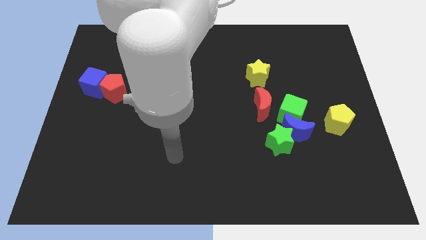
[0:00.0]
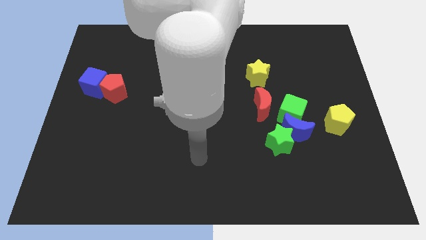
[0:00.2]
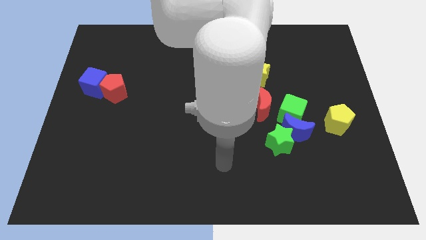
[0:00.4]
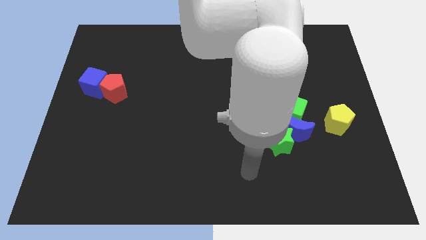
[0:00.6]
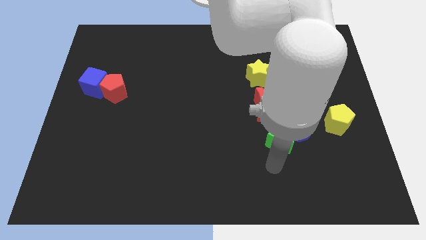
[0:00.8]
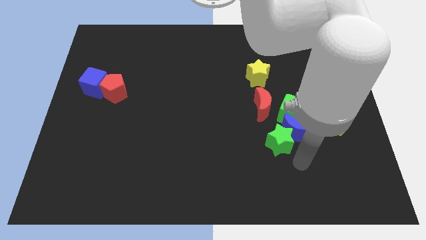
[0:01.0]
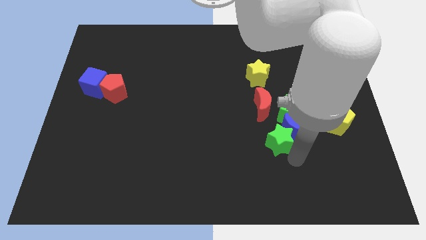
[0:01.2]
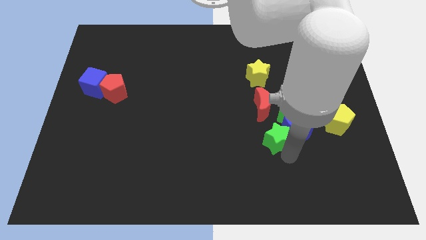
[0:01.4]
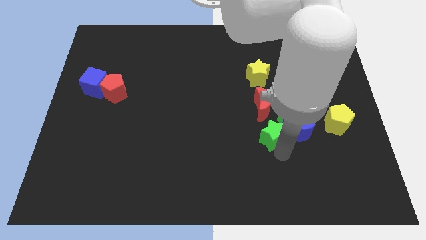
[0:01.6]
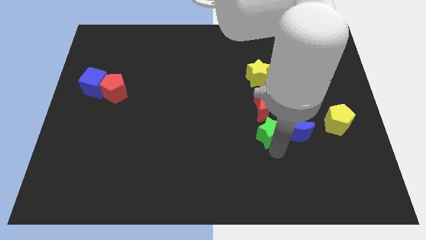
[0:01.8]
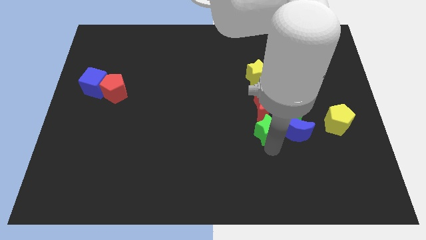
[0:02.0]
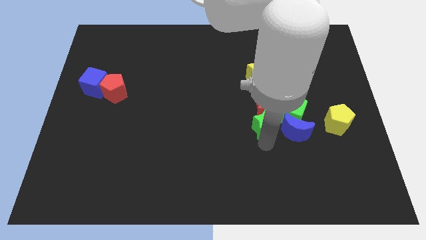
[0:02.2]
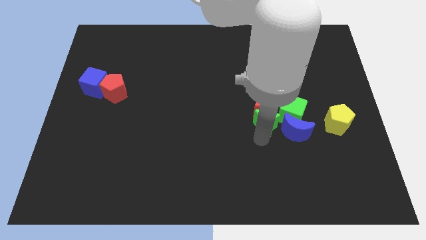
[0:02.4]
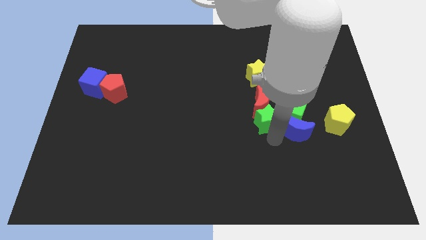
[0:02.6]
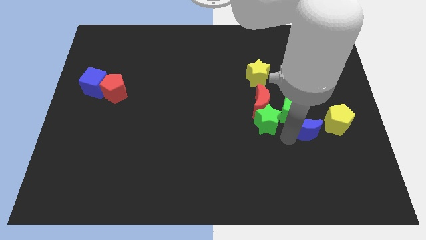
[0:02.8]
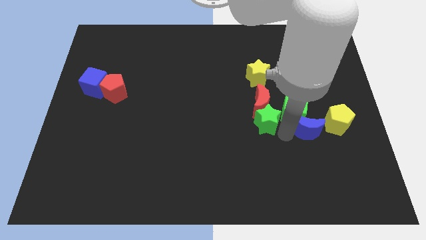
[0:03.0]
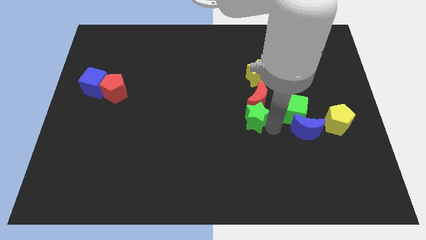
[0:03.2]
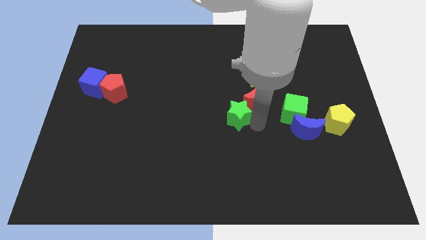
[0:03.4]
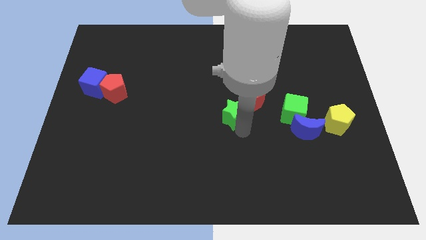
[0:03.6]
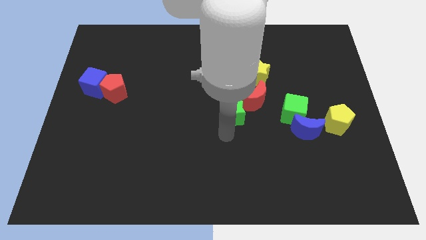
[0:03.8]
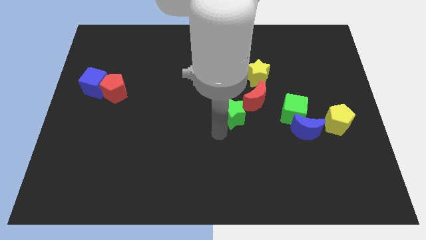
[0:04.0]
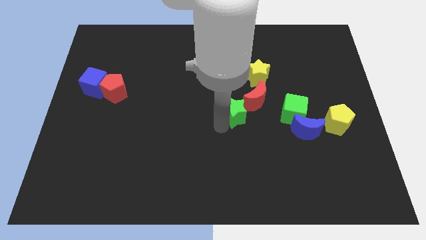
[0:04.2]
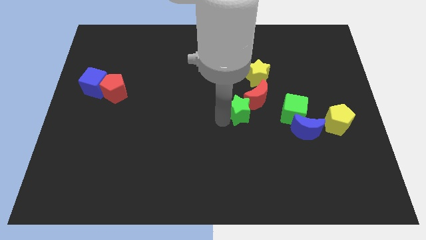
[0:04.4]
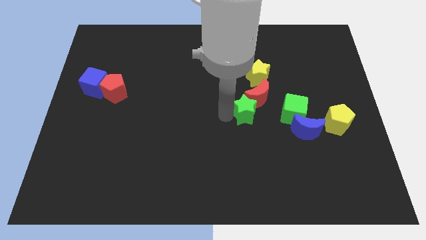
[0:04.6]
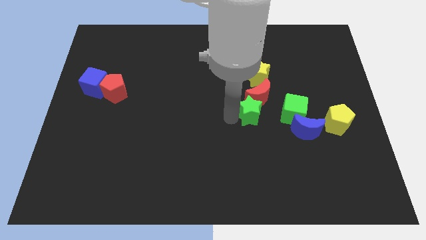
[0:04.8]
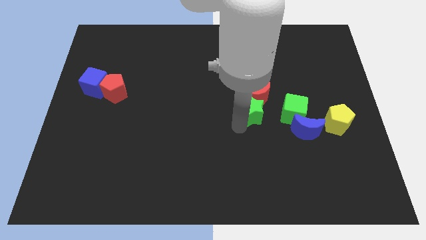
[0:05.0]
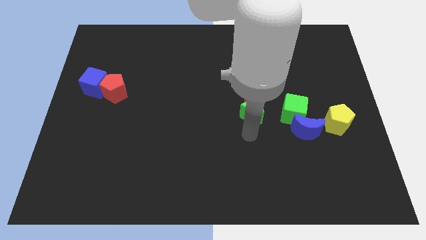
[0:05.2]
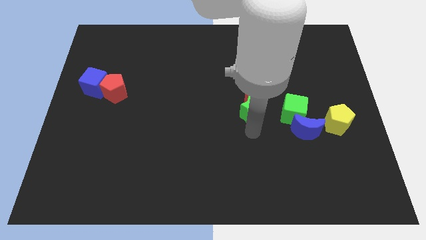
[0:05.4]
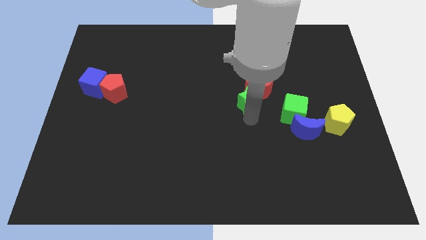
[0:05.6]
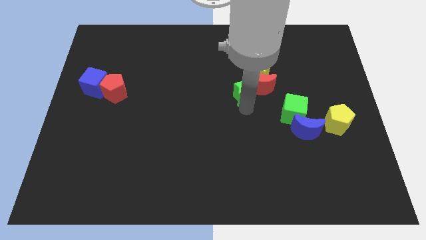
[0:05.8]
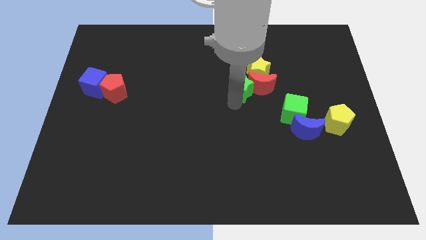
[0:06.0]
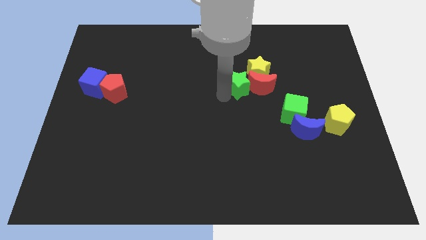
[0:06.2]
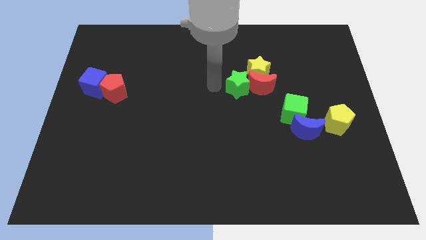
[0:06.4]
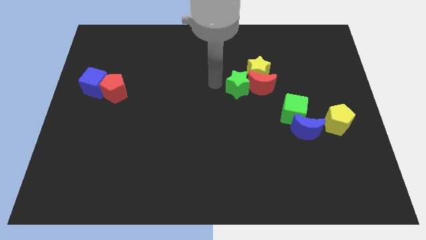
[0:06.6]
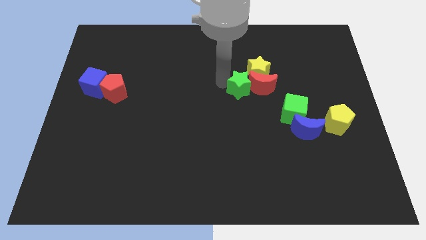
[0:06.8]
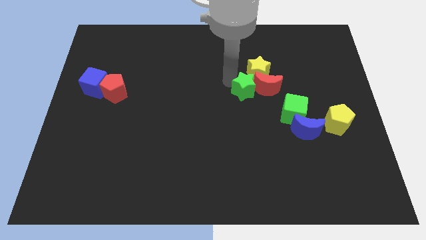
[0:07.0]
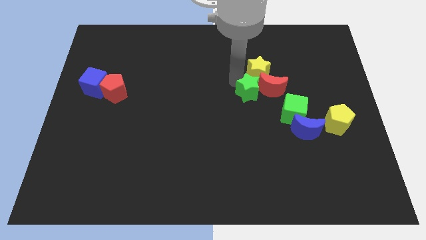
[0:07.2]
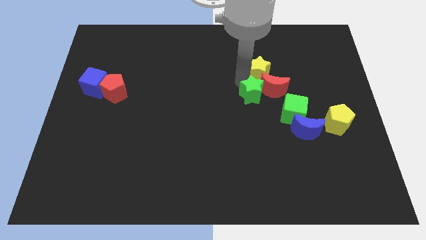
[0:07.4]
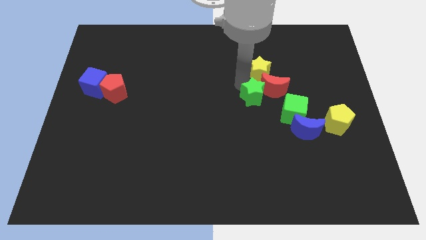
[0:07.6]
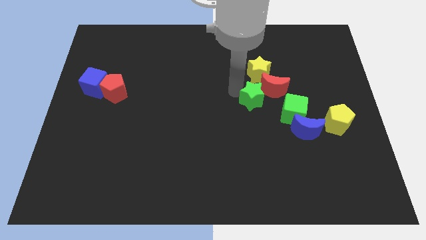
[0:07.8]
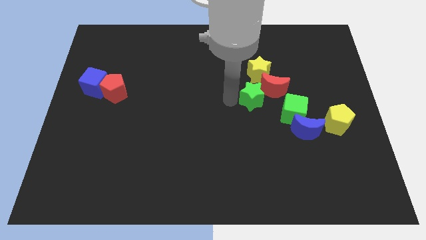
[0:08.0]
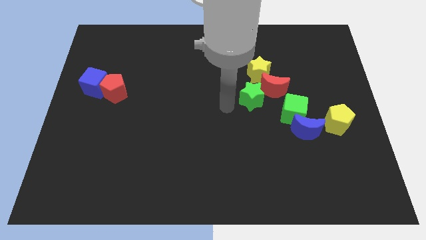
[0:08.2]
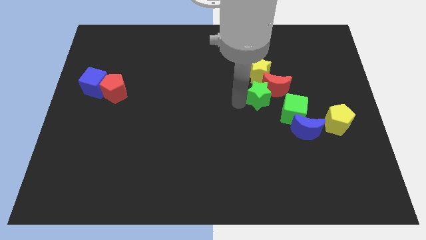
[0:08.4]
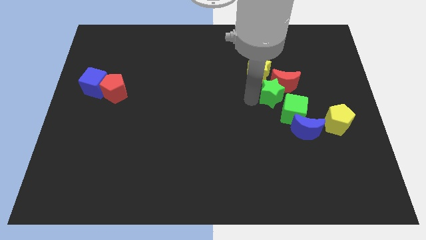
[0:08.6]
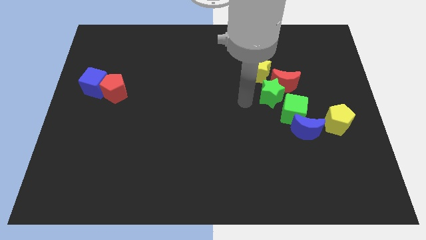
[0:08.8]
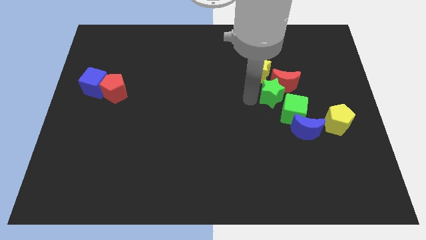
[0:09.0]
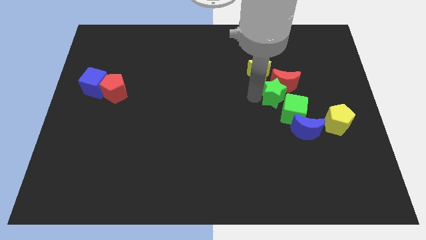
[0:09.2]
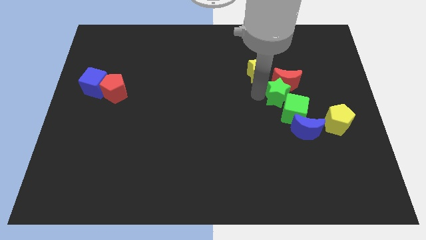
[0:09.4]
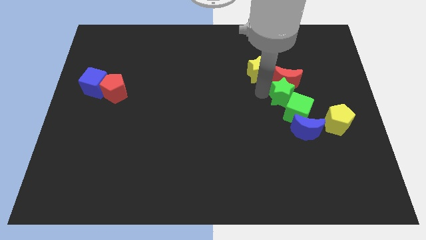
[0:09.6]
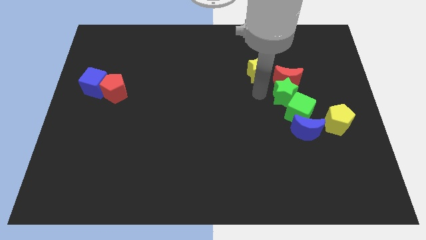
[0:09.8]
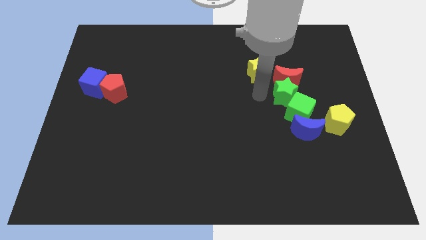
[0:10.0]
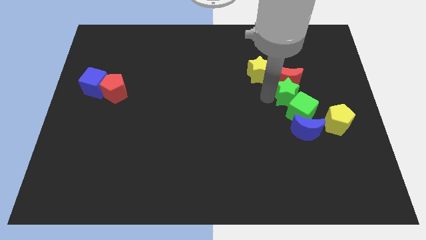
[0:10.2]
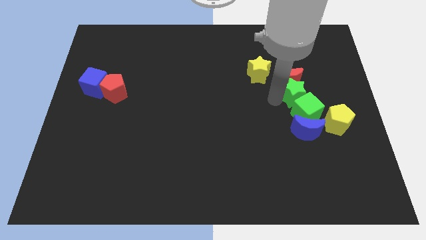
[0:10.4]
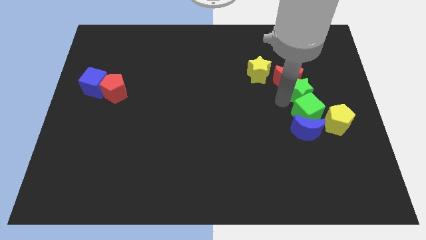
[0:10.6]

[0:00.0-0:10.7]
move the green star diagonally up and to the right of the green cube

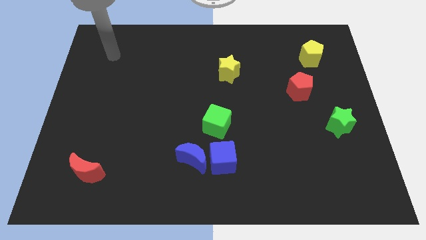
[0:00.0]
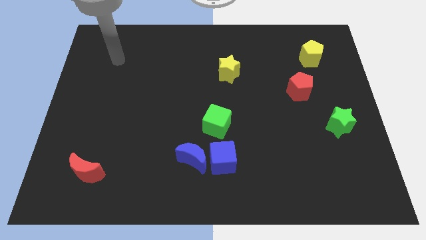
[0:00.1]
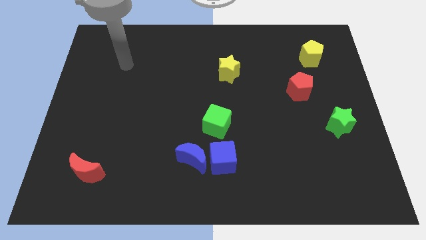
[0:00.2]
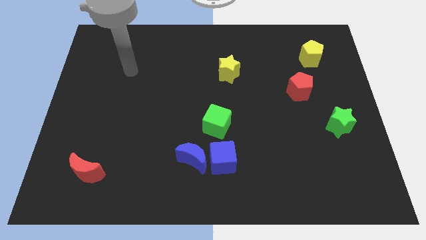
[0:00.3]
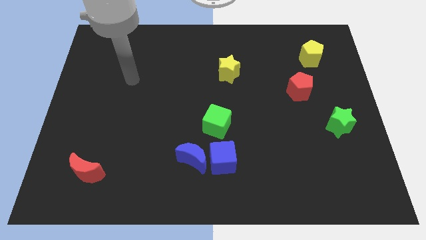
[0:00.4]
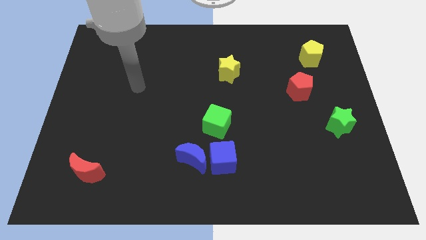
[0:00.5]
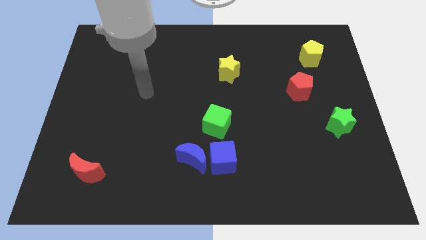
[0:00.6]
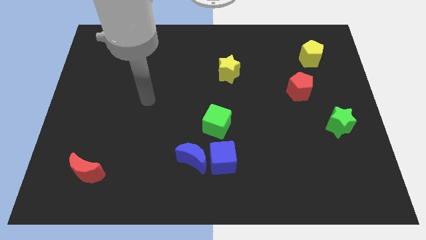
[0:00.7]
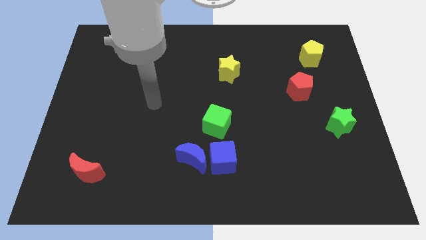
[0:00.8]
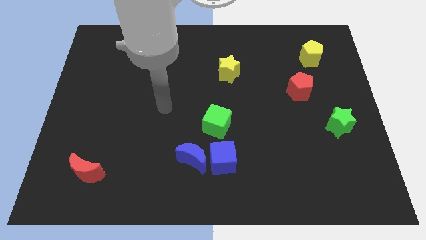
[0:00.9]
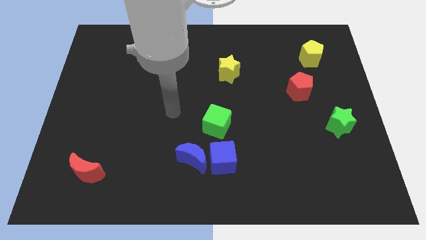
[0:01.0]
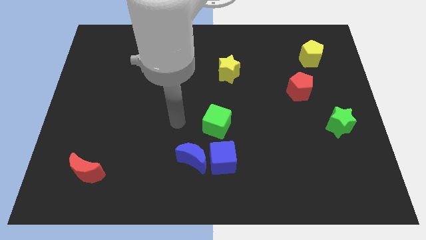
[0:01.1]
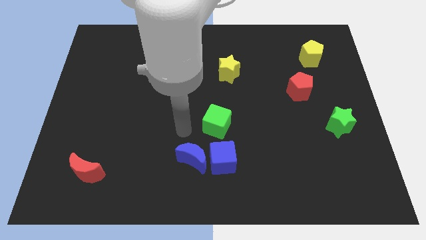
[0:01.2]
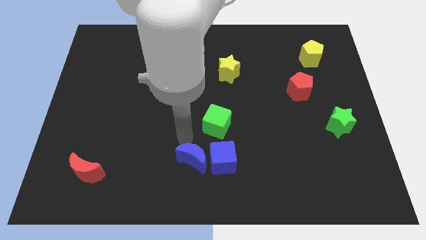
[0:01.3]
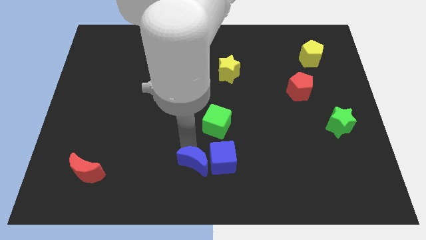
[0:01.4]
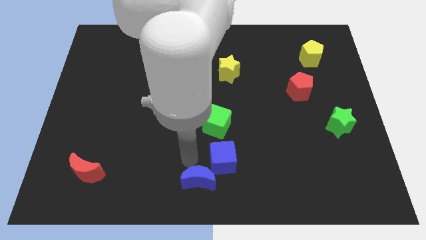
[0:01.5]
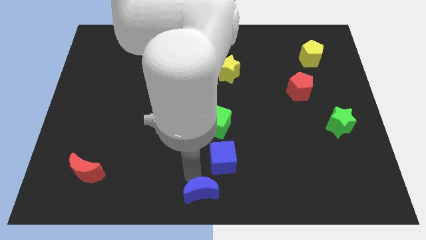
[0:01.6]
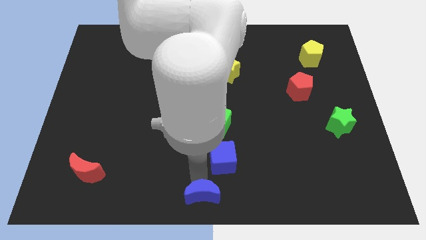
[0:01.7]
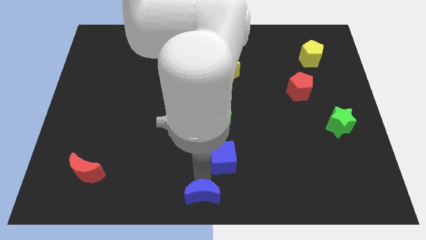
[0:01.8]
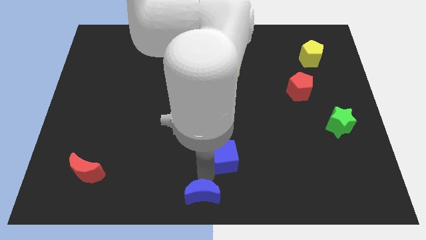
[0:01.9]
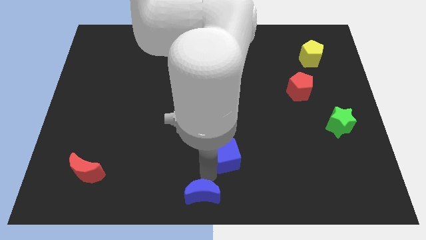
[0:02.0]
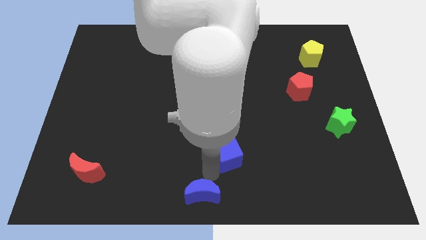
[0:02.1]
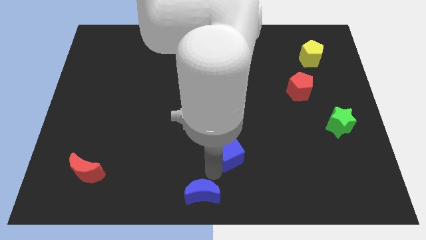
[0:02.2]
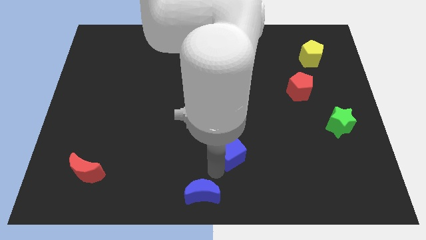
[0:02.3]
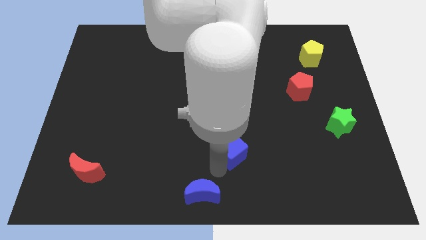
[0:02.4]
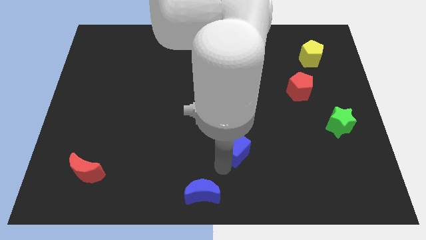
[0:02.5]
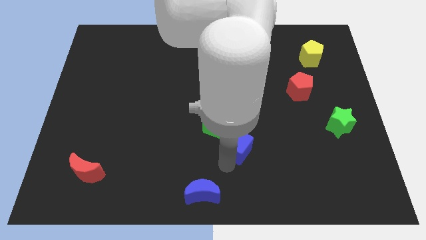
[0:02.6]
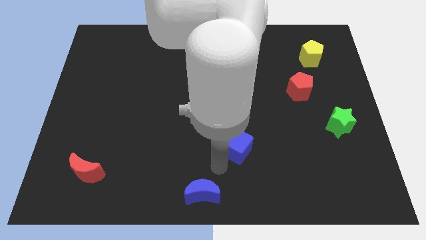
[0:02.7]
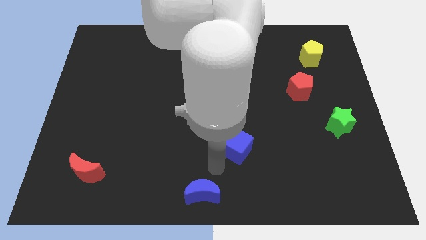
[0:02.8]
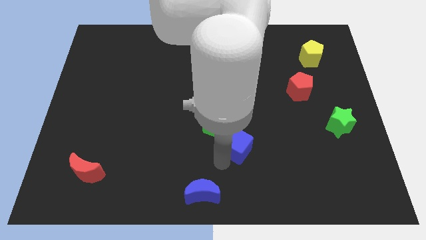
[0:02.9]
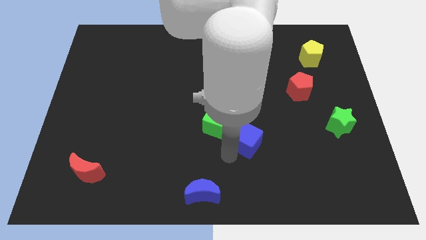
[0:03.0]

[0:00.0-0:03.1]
move the blue cube just right of the green cube
